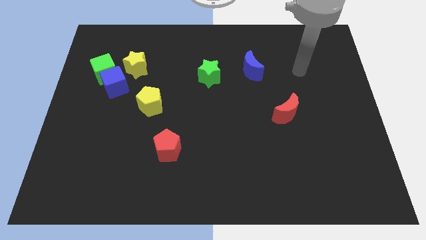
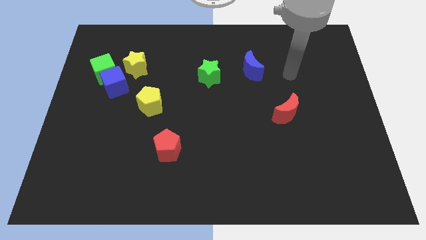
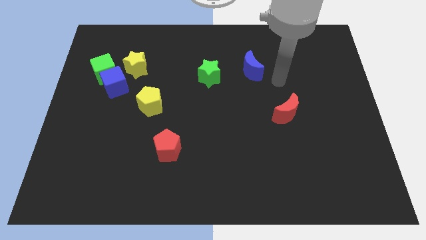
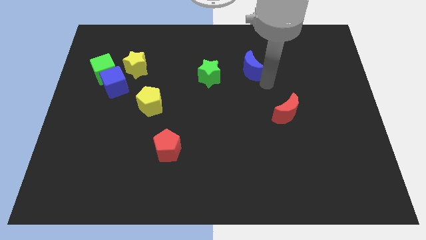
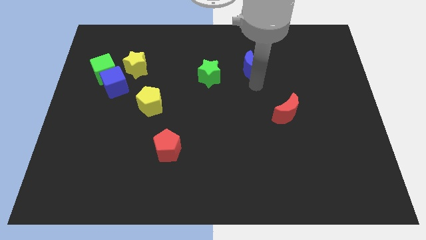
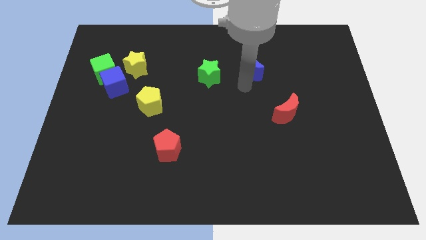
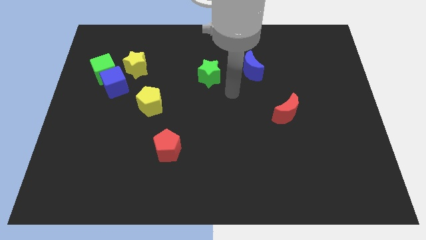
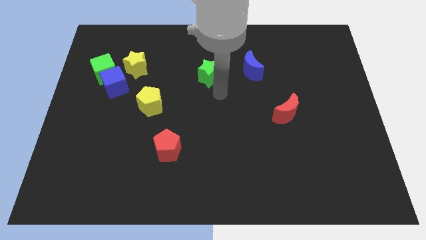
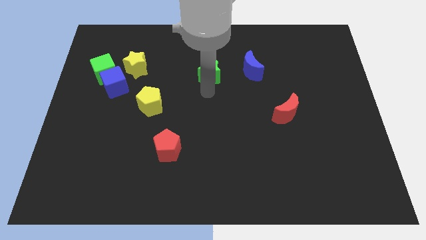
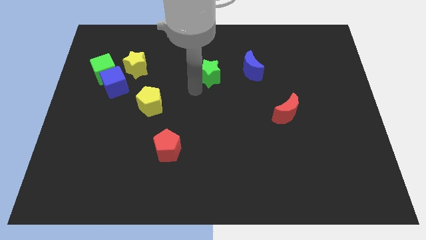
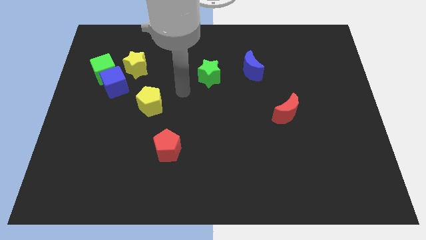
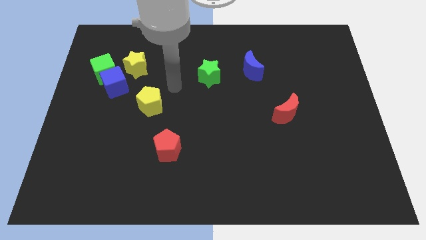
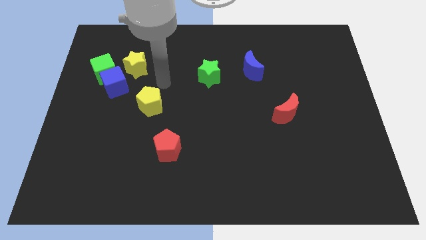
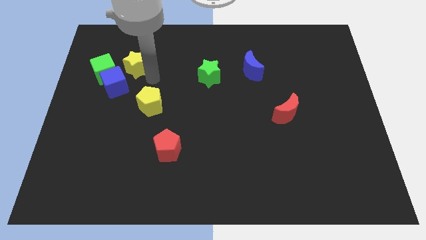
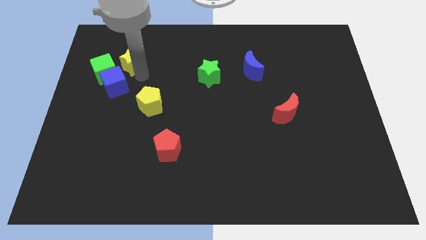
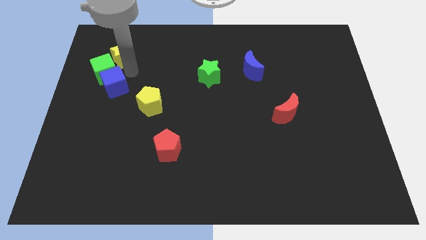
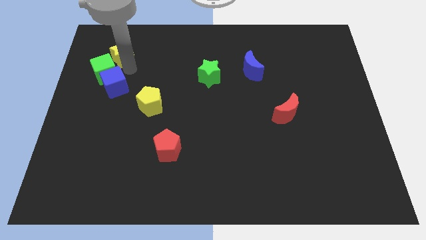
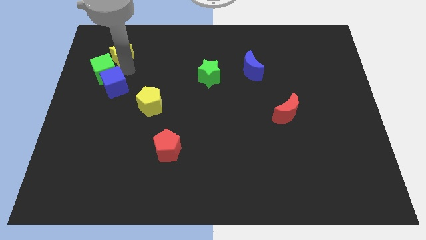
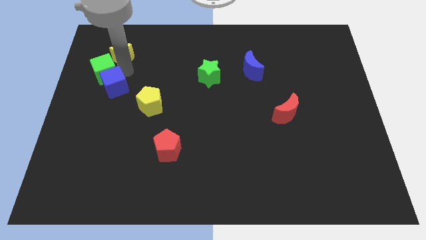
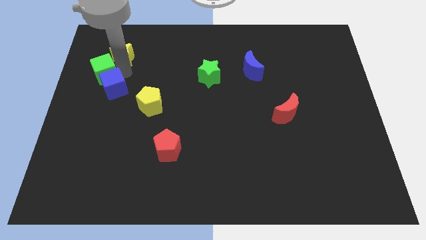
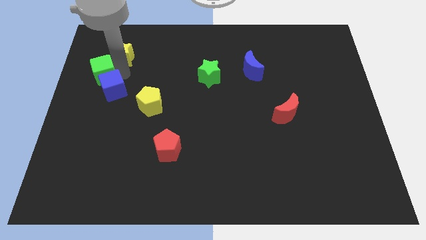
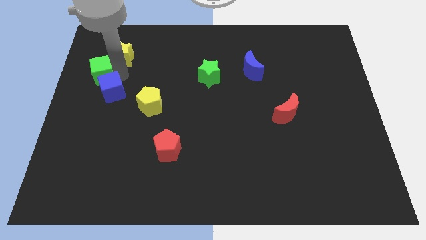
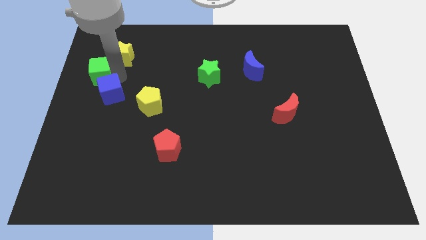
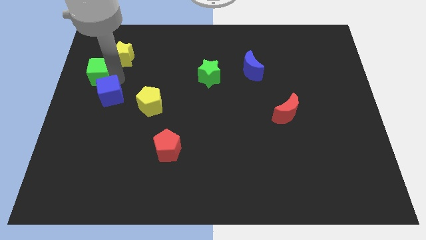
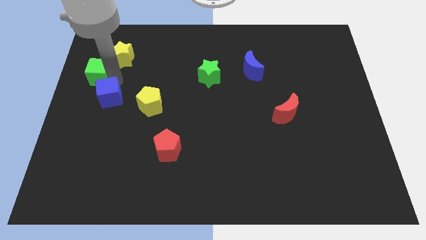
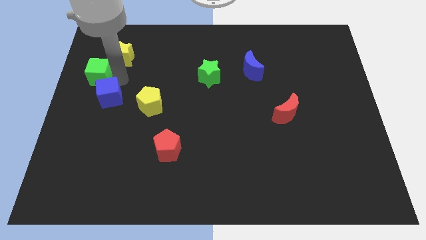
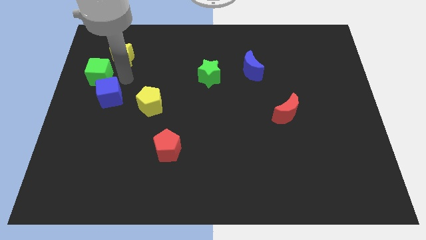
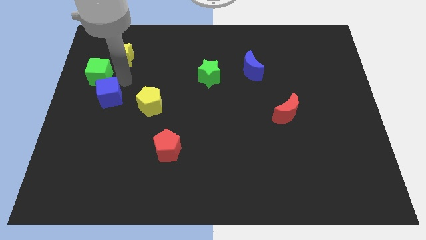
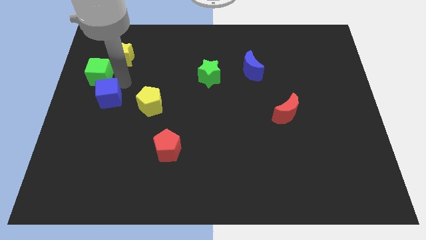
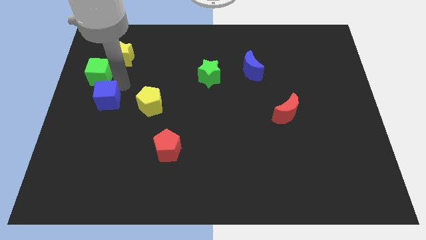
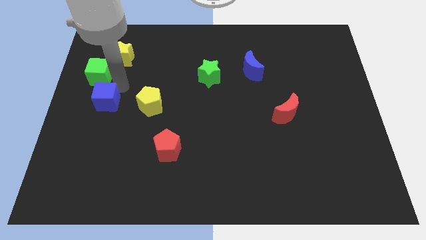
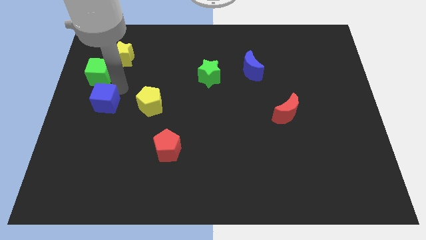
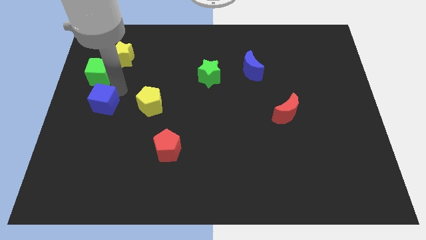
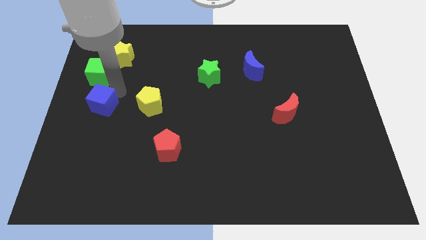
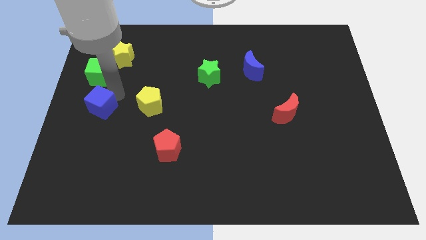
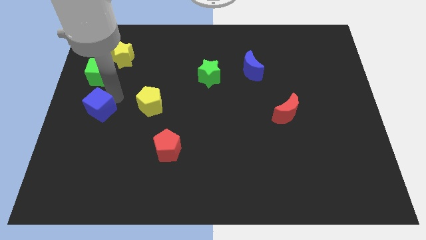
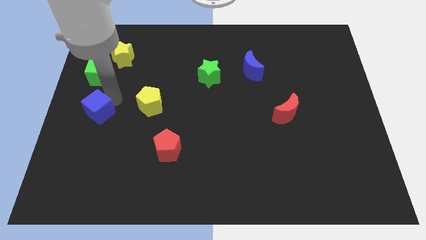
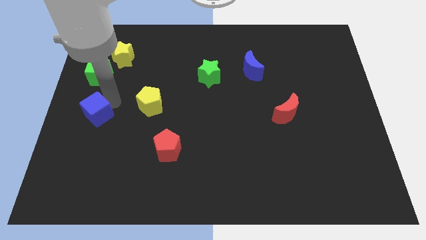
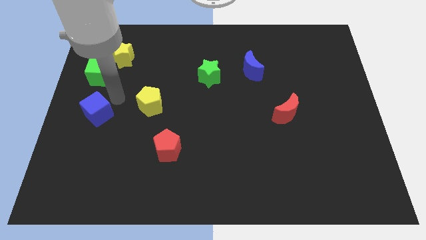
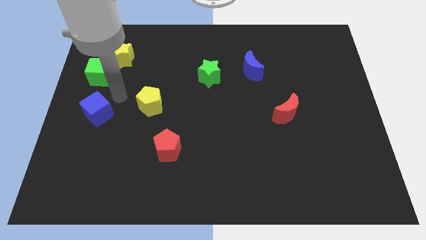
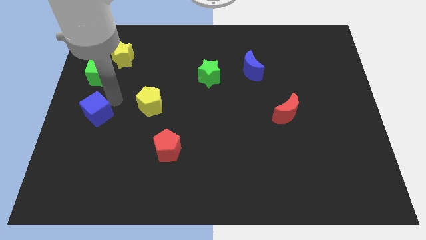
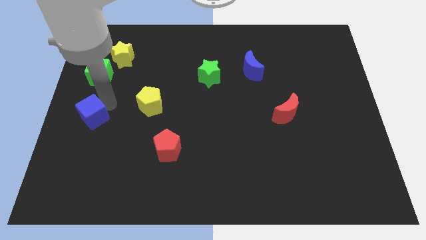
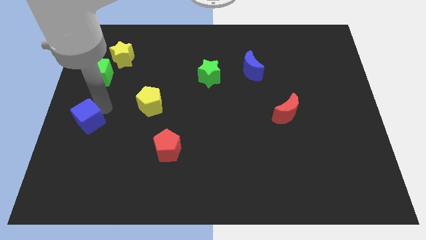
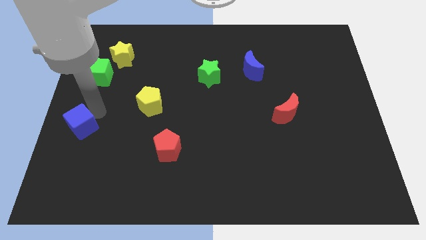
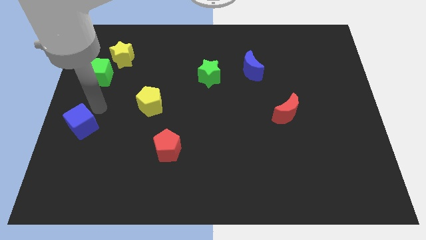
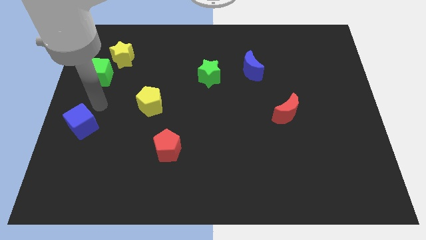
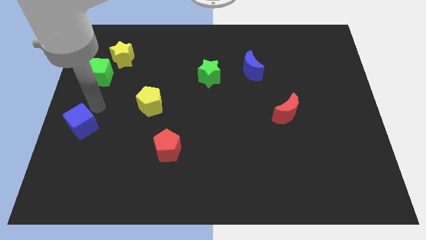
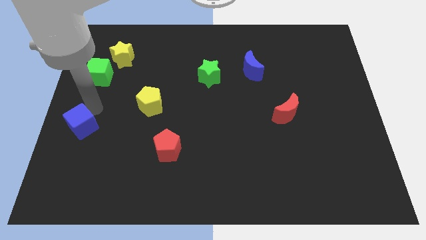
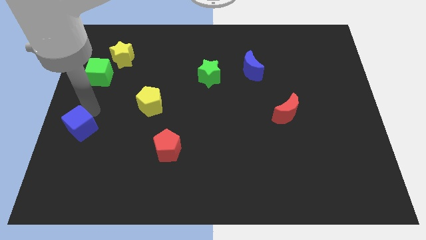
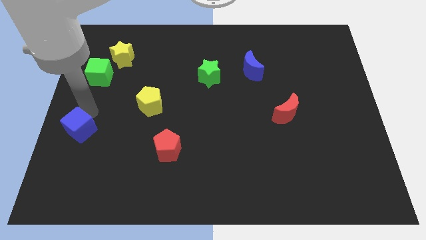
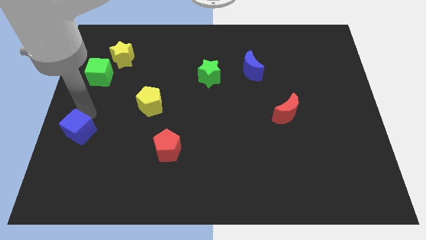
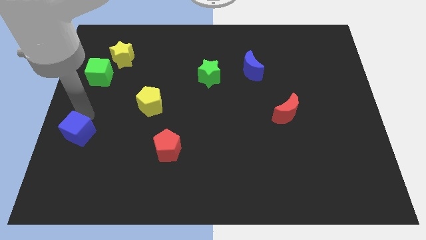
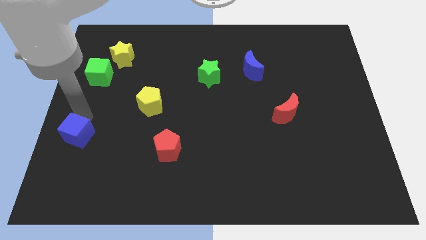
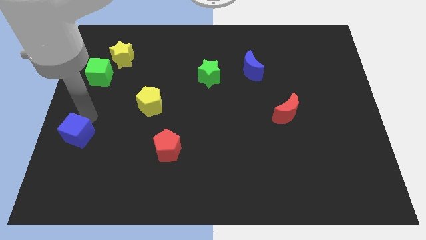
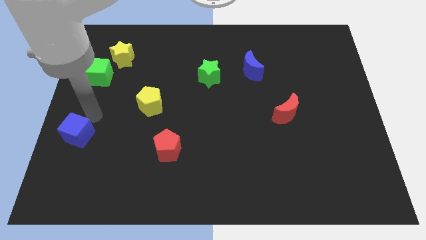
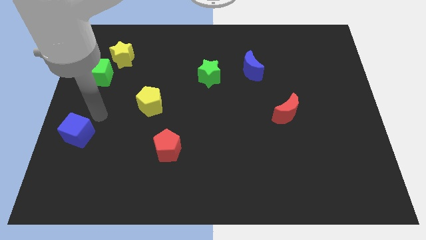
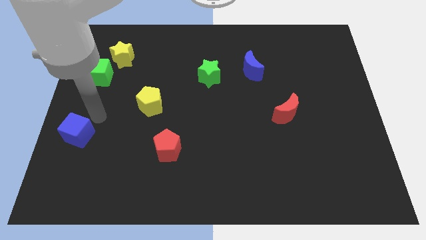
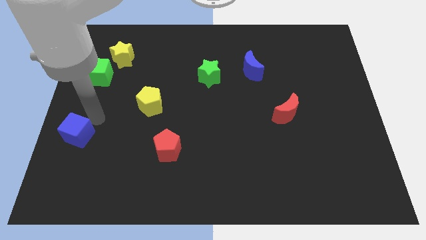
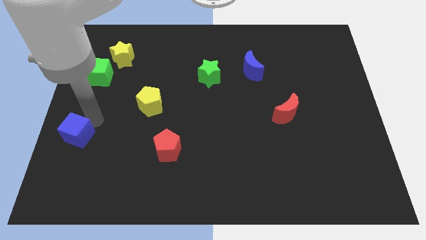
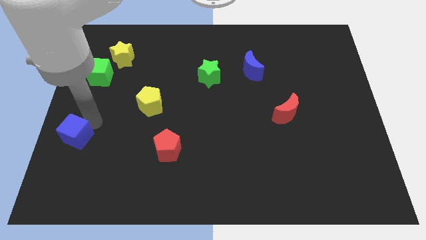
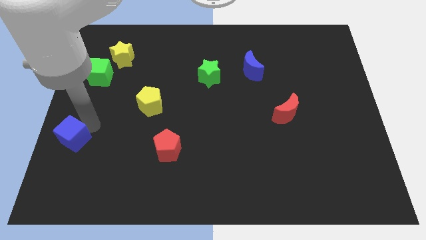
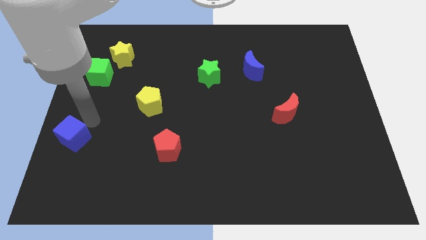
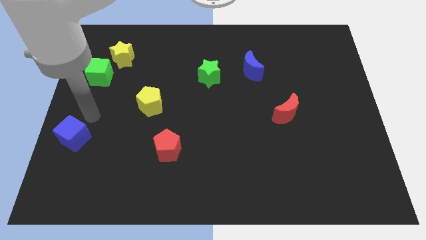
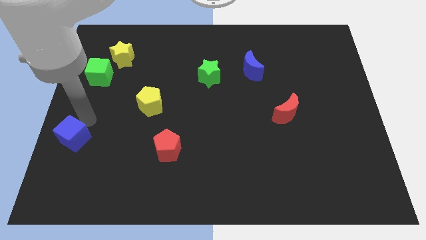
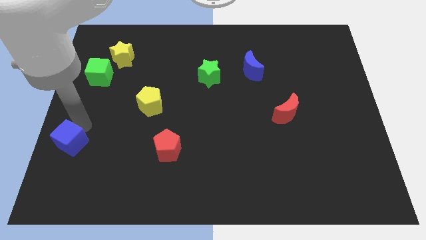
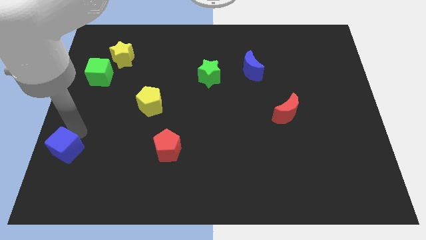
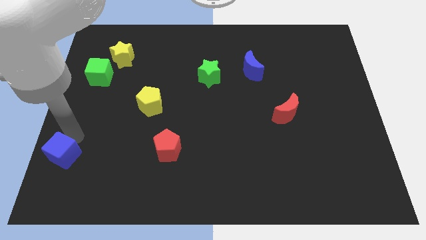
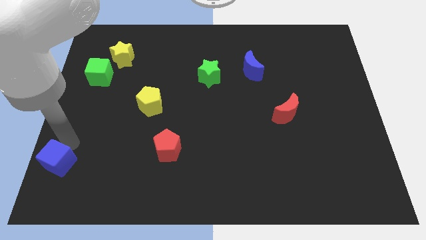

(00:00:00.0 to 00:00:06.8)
push the blue cube to the bottom left
